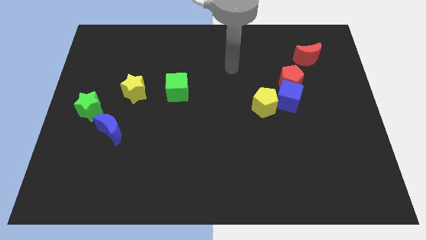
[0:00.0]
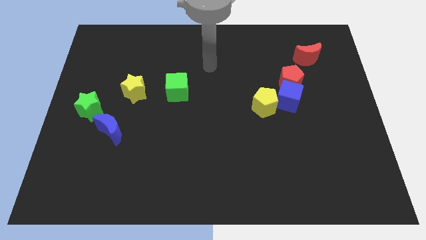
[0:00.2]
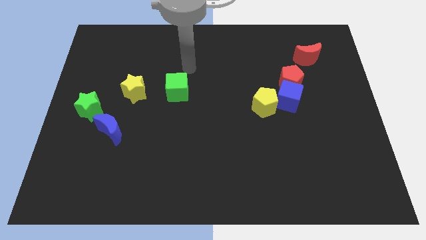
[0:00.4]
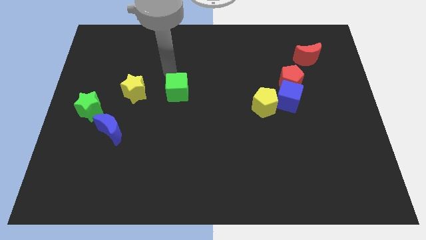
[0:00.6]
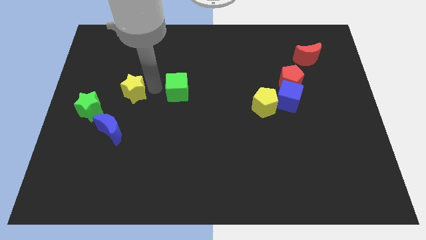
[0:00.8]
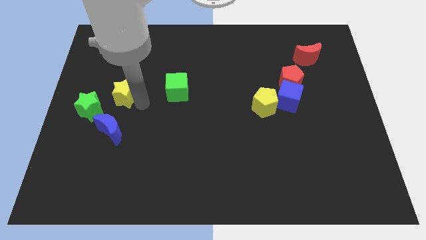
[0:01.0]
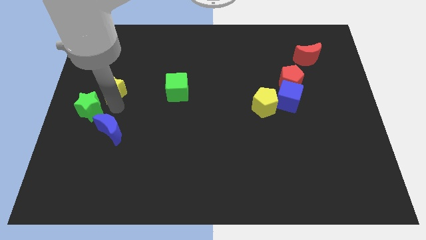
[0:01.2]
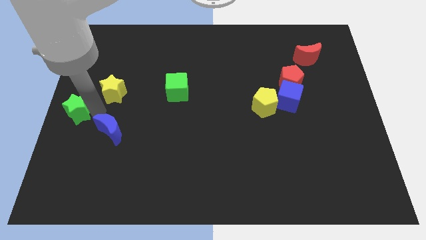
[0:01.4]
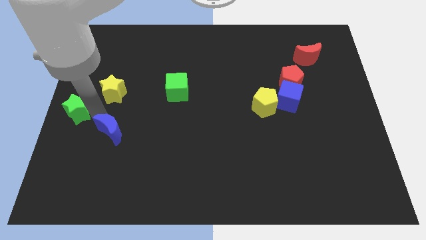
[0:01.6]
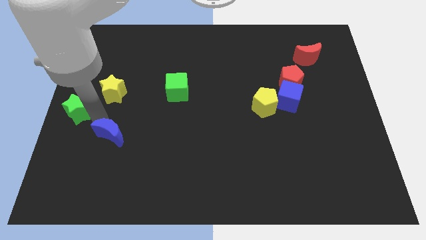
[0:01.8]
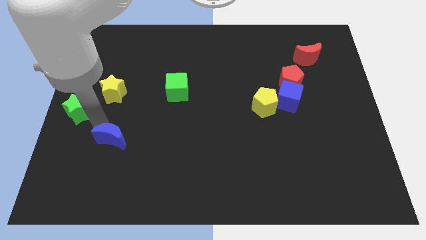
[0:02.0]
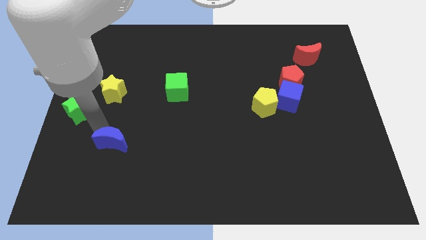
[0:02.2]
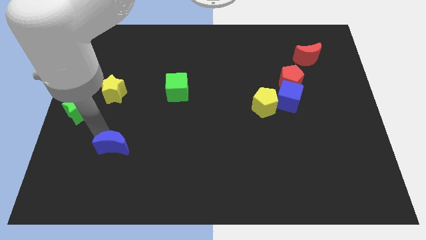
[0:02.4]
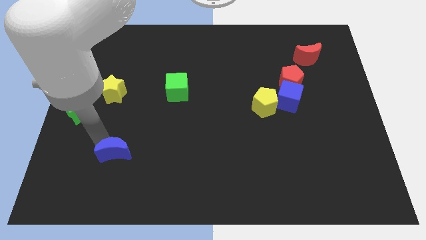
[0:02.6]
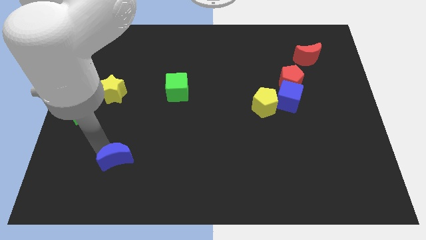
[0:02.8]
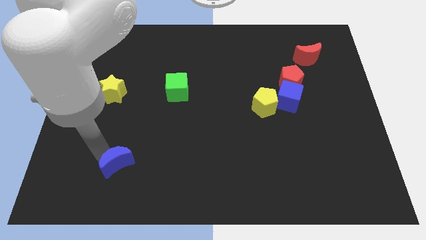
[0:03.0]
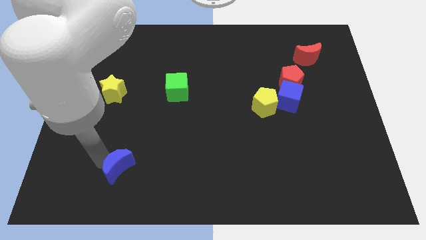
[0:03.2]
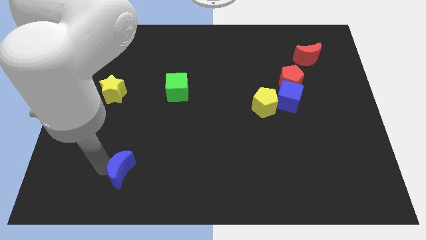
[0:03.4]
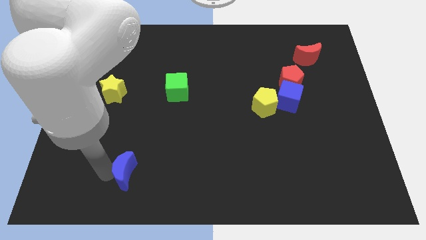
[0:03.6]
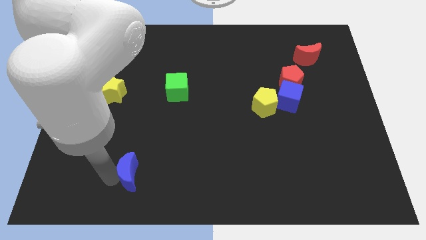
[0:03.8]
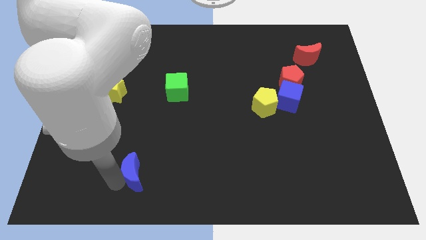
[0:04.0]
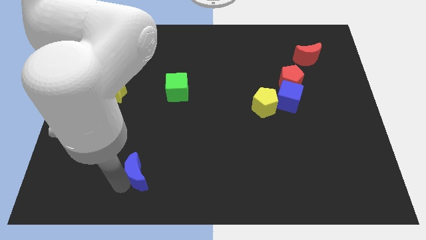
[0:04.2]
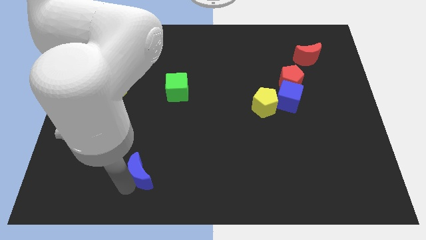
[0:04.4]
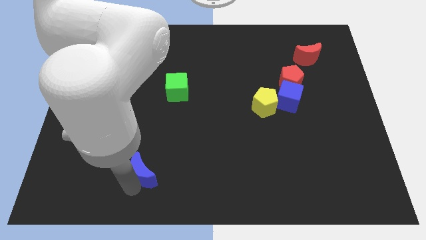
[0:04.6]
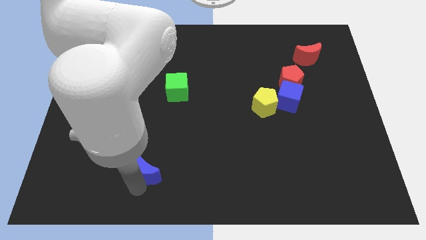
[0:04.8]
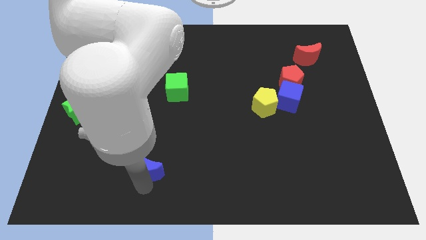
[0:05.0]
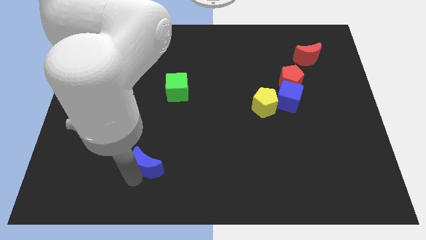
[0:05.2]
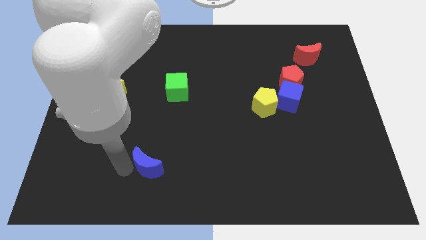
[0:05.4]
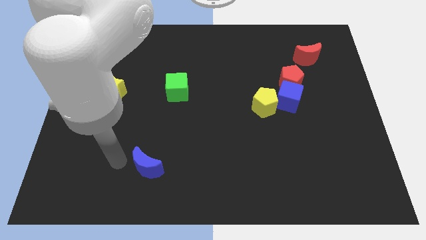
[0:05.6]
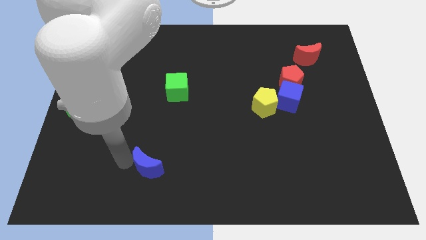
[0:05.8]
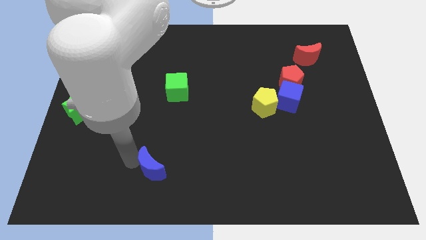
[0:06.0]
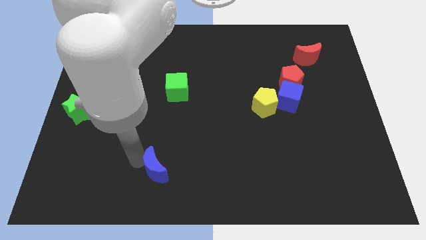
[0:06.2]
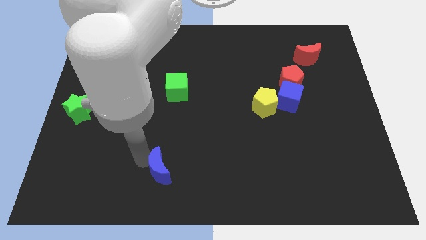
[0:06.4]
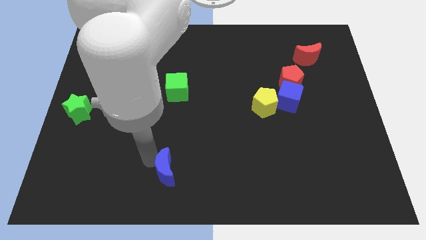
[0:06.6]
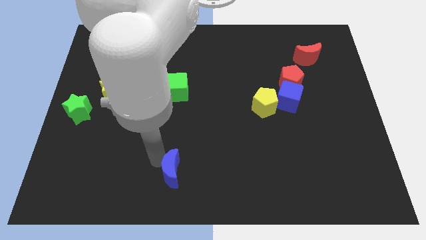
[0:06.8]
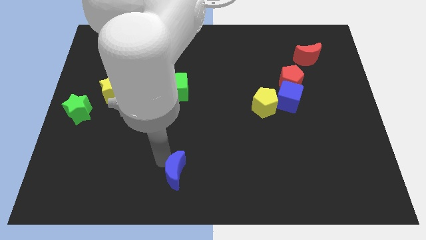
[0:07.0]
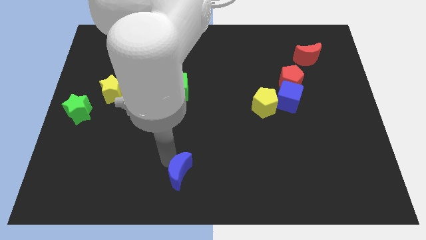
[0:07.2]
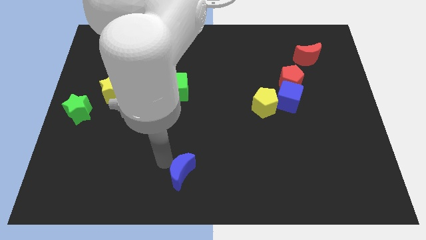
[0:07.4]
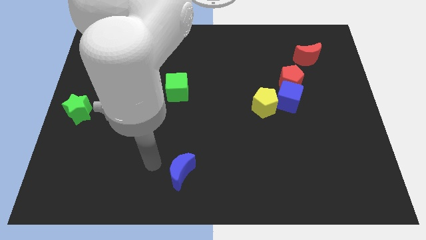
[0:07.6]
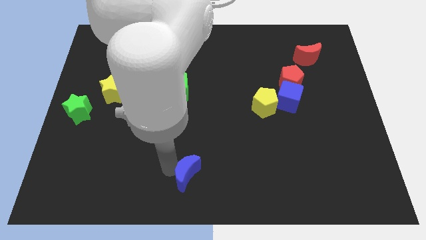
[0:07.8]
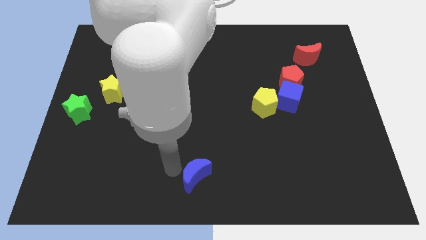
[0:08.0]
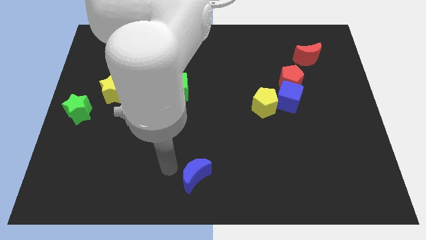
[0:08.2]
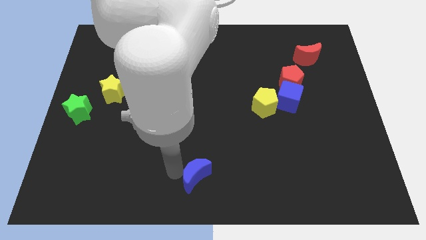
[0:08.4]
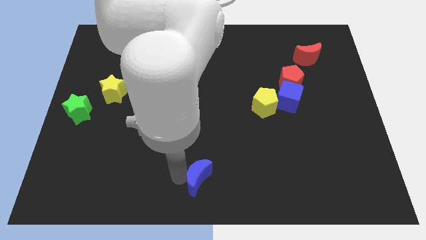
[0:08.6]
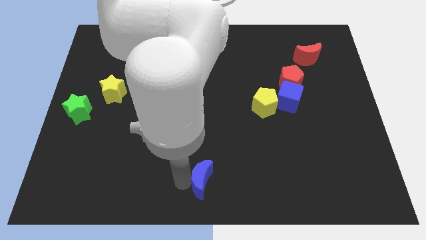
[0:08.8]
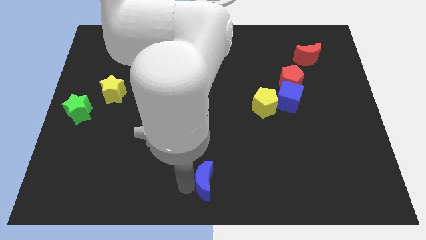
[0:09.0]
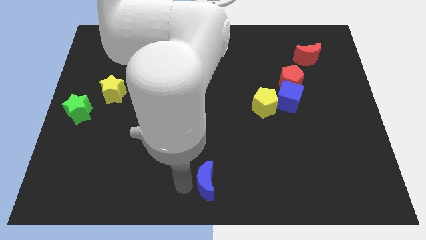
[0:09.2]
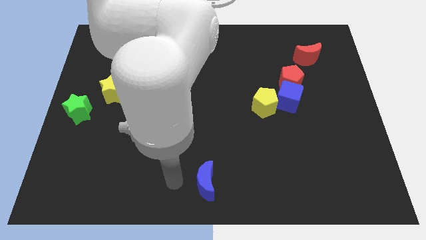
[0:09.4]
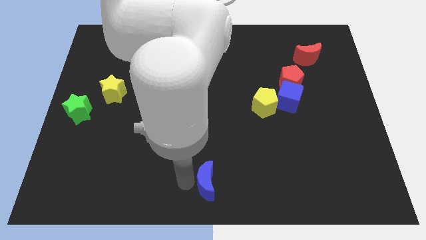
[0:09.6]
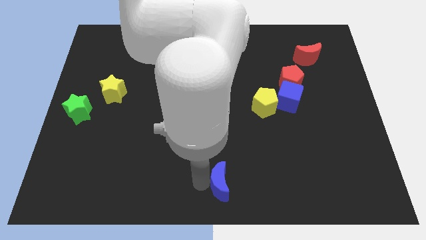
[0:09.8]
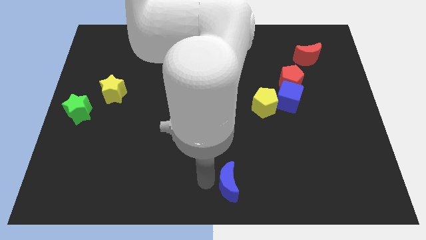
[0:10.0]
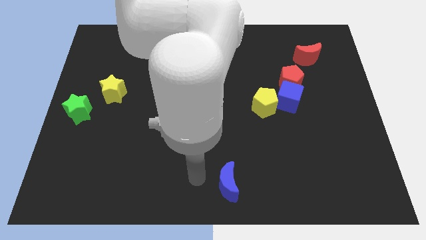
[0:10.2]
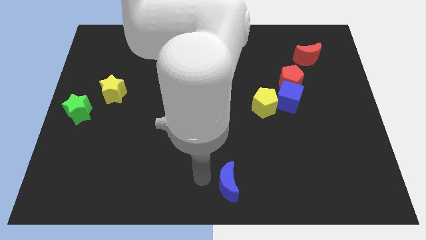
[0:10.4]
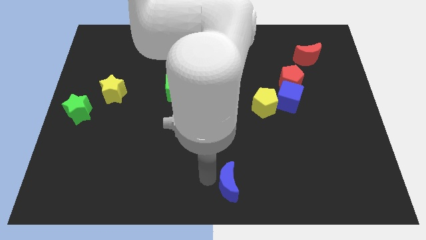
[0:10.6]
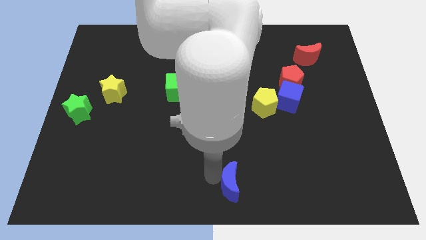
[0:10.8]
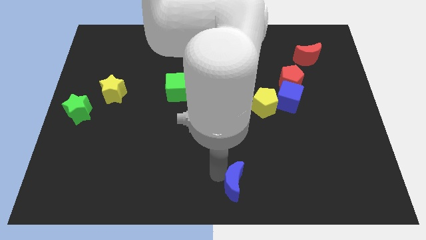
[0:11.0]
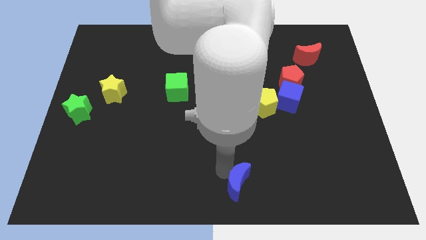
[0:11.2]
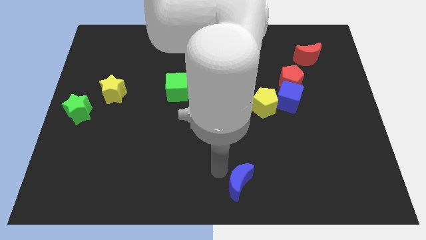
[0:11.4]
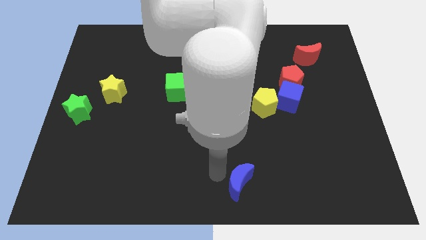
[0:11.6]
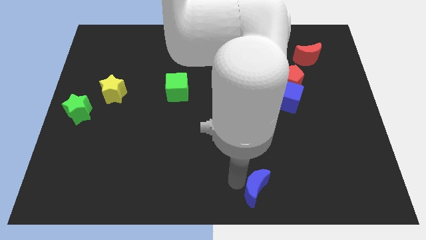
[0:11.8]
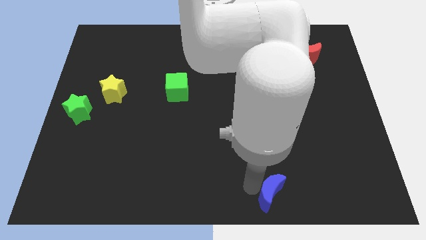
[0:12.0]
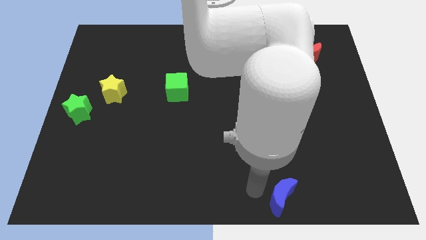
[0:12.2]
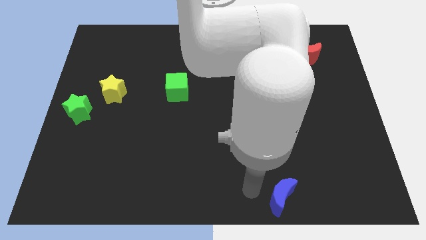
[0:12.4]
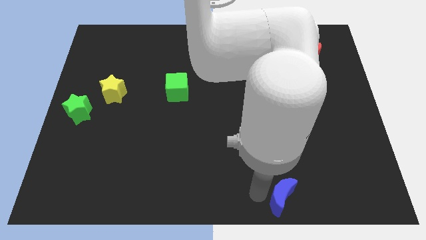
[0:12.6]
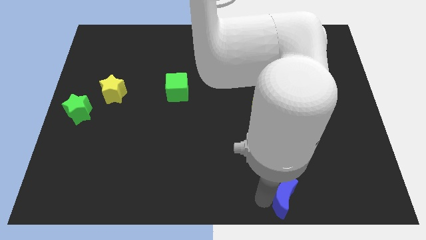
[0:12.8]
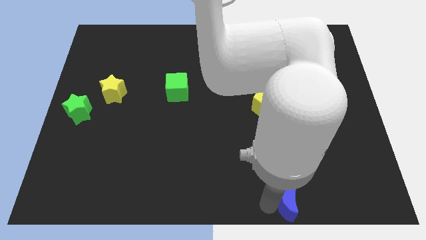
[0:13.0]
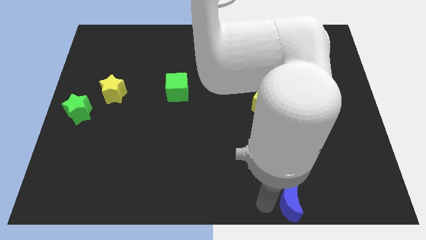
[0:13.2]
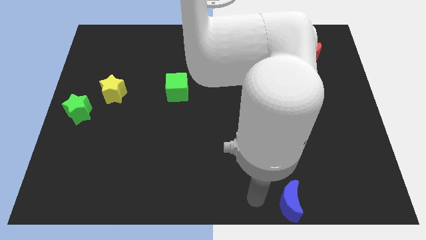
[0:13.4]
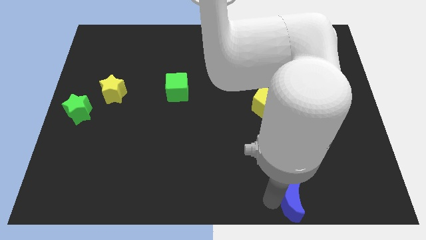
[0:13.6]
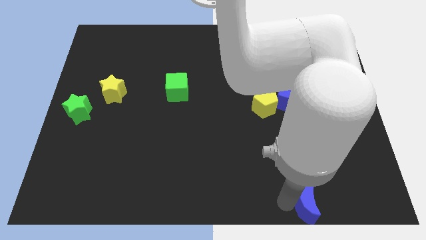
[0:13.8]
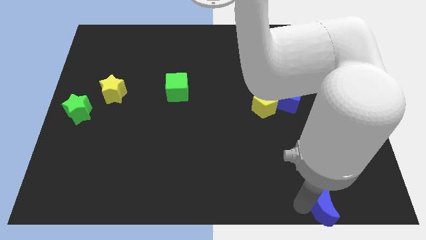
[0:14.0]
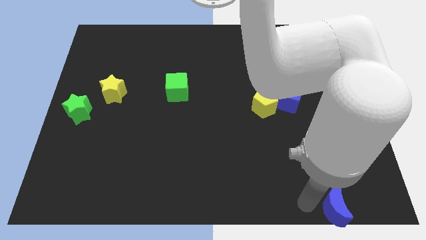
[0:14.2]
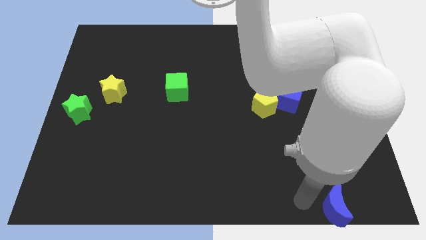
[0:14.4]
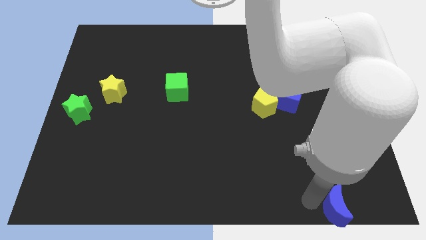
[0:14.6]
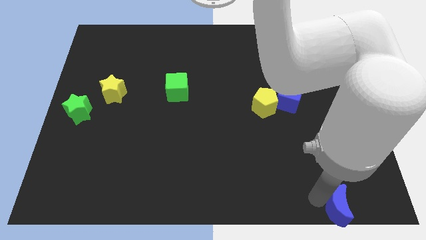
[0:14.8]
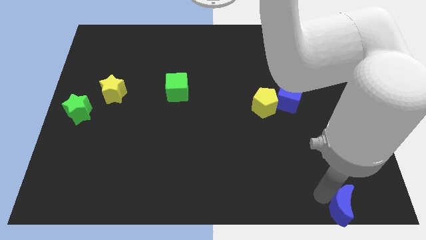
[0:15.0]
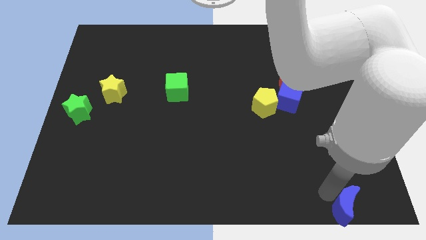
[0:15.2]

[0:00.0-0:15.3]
move the blue moon to the lower right corner
